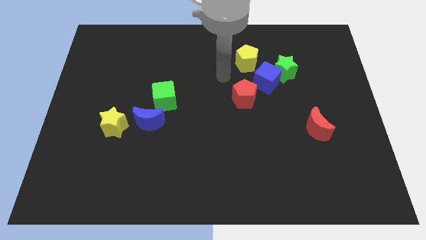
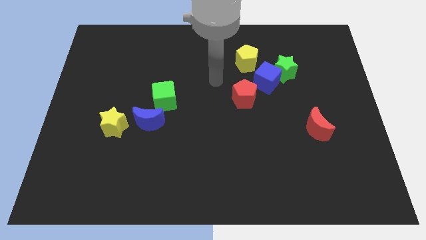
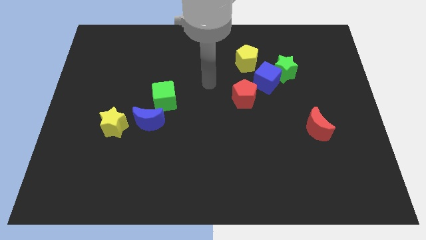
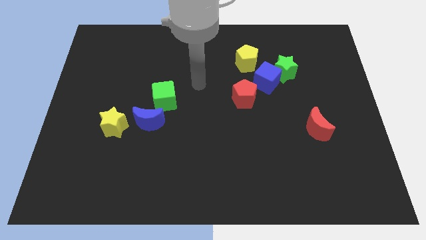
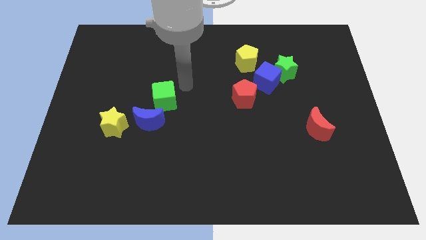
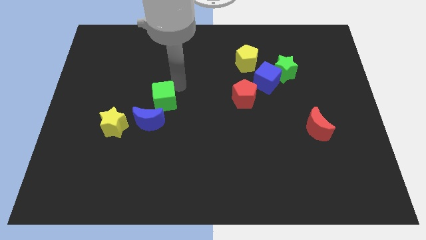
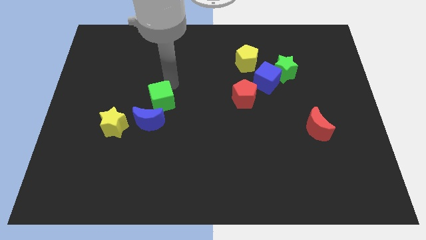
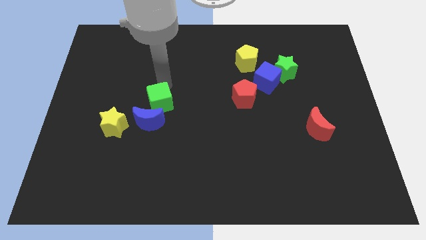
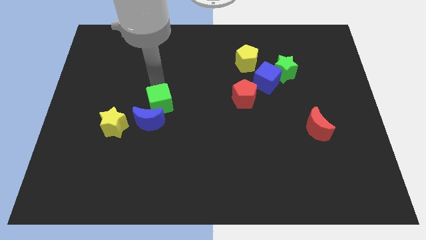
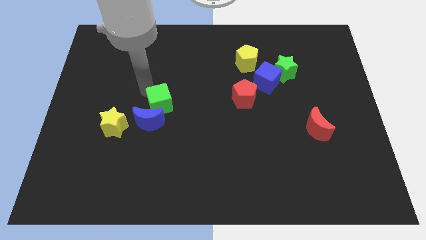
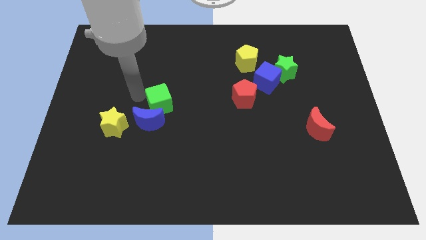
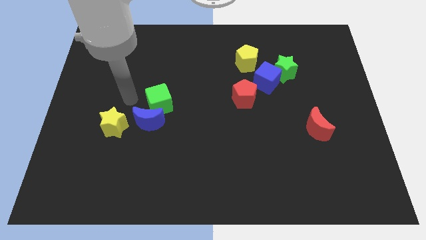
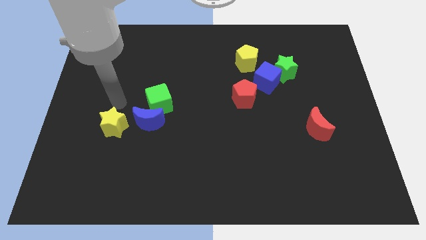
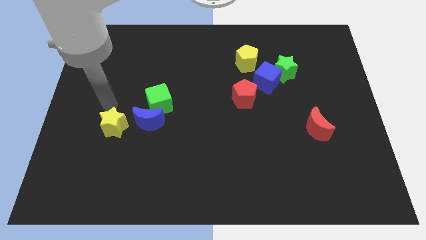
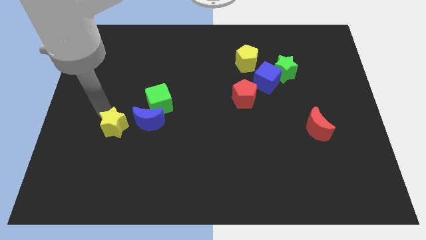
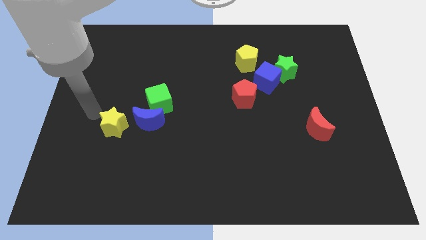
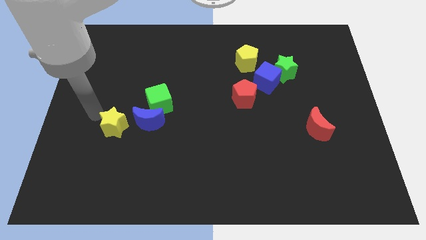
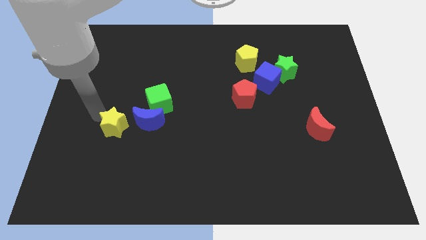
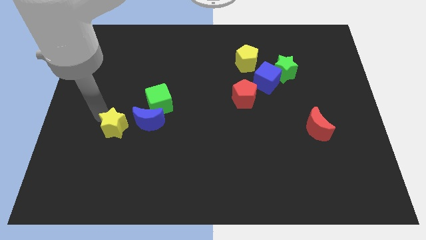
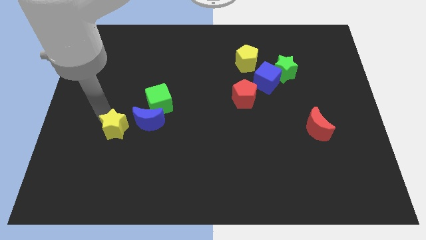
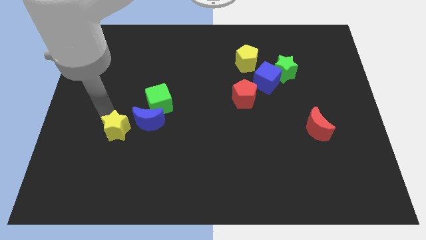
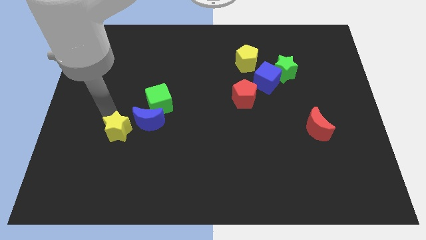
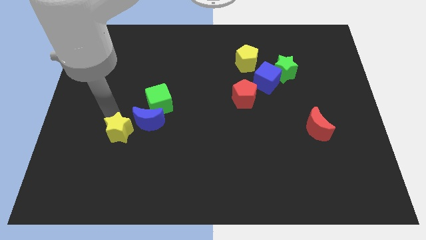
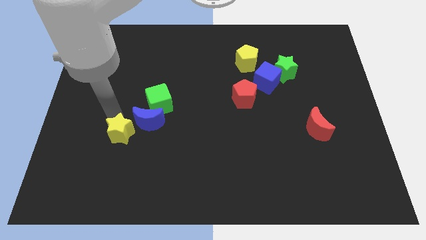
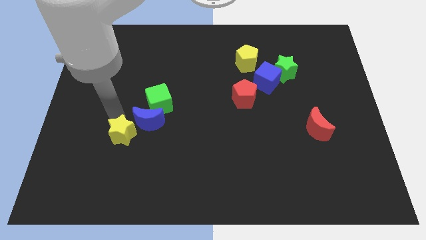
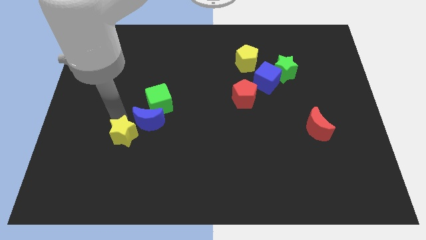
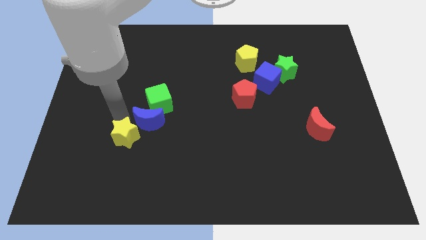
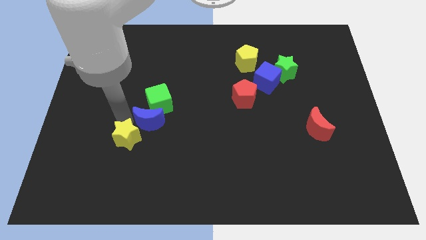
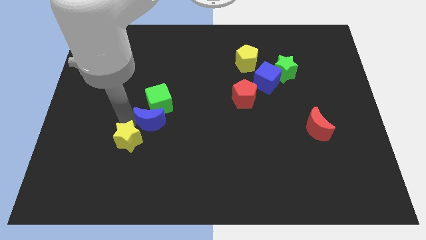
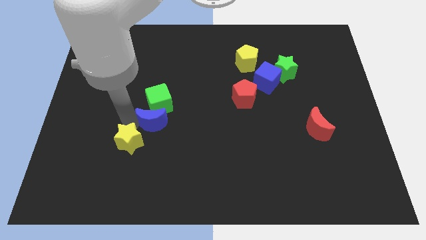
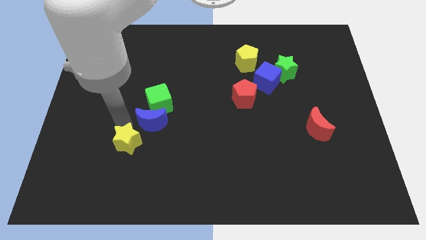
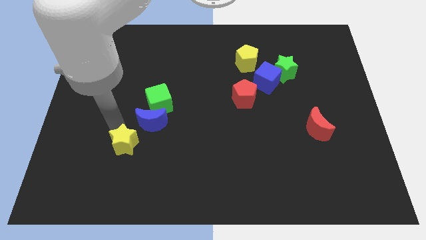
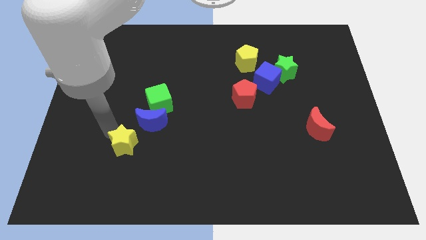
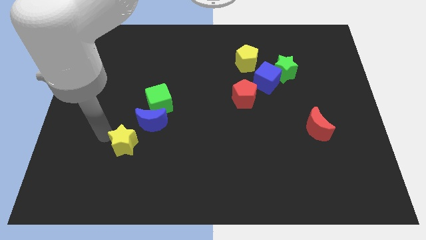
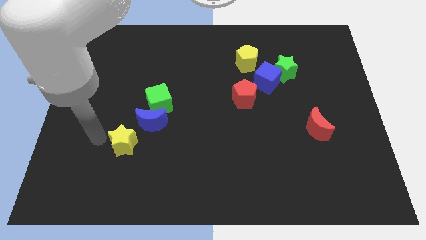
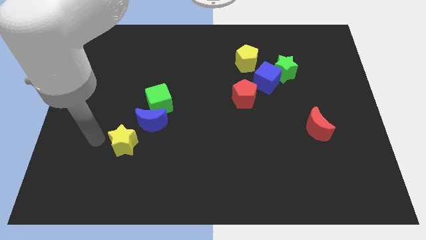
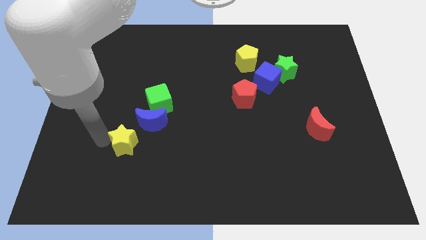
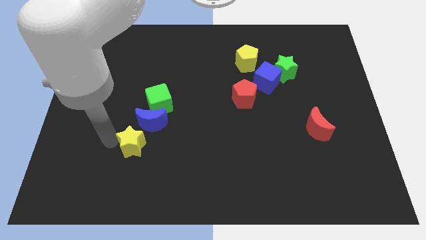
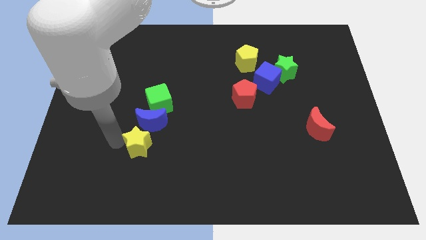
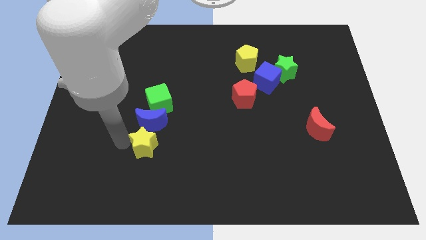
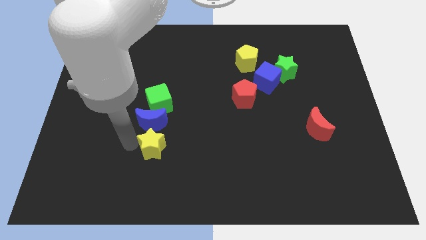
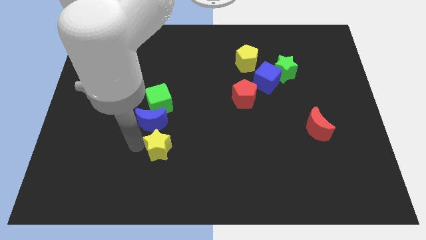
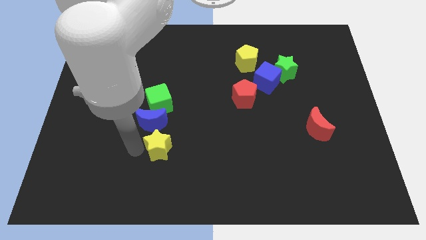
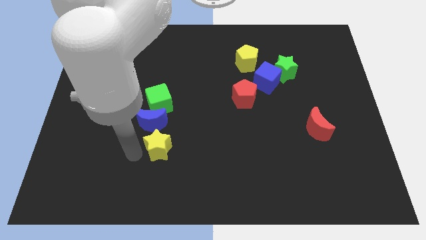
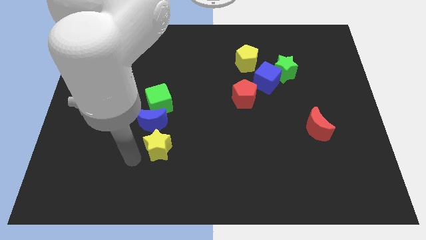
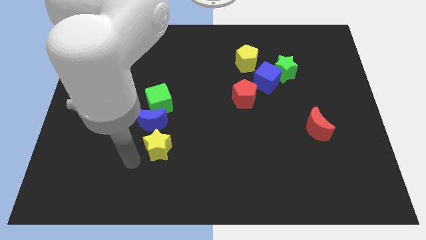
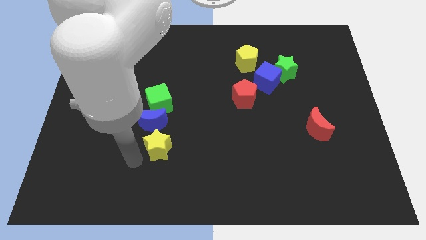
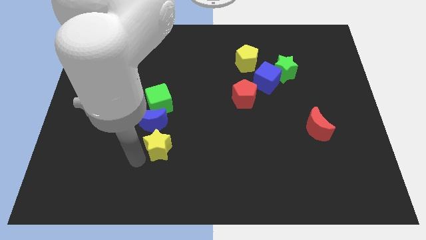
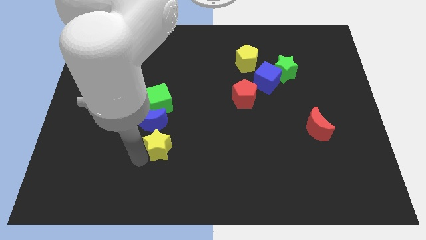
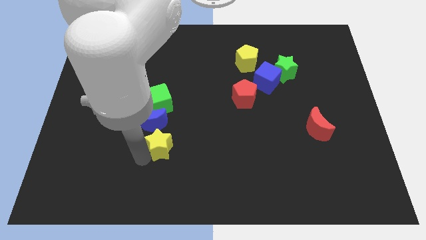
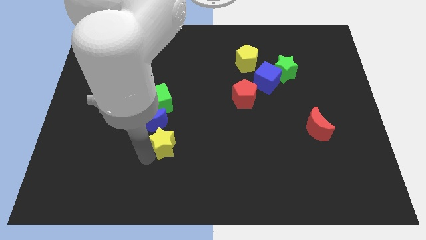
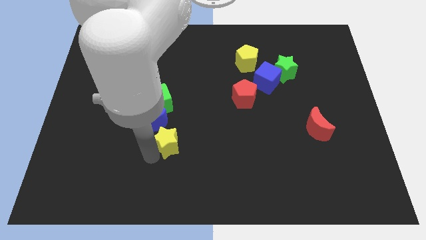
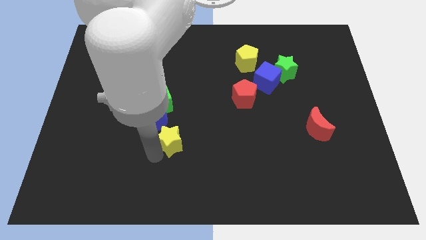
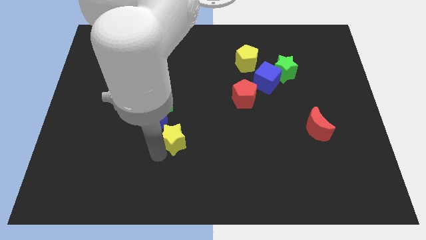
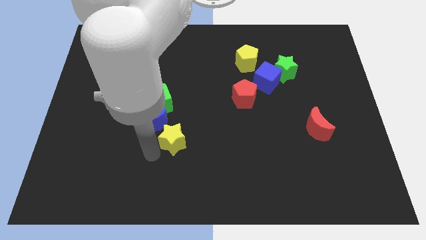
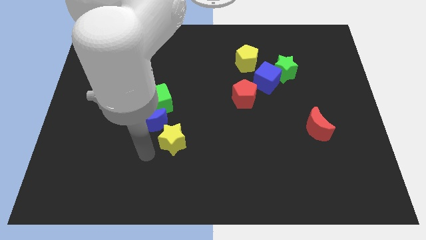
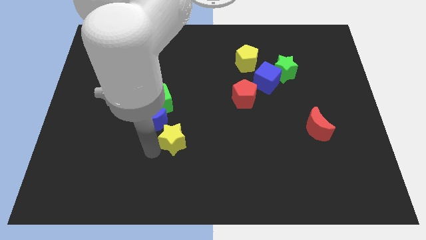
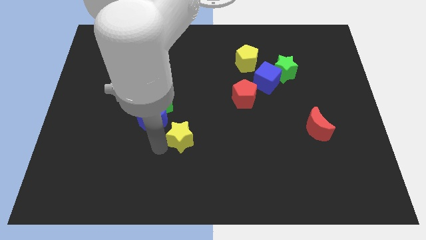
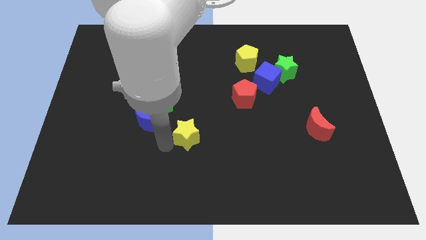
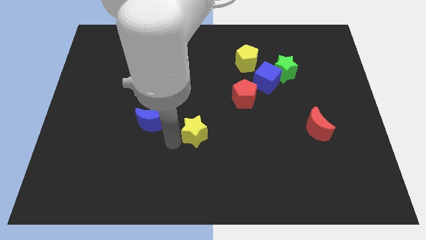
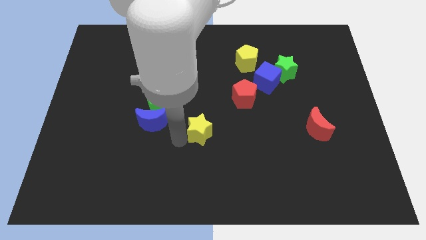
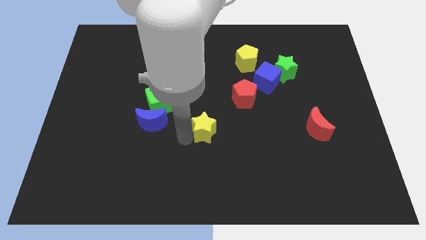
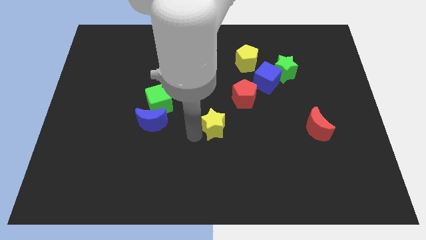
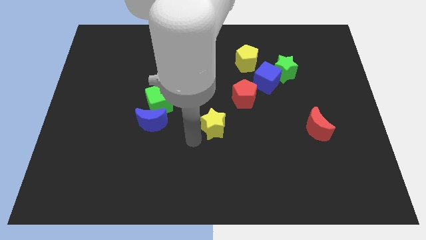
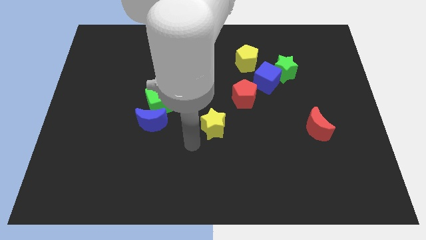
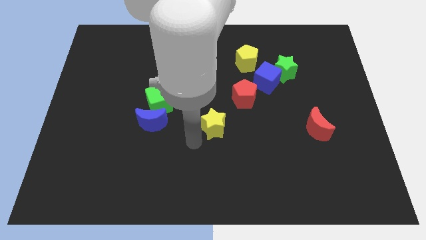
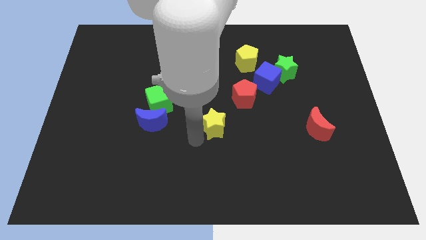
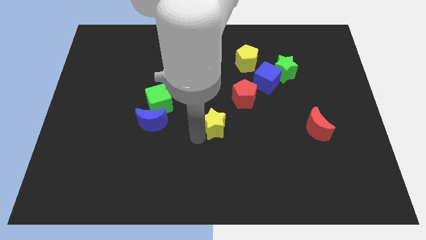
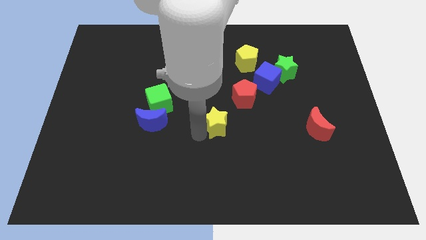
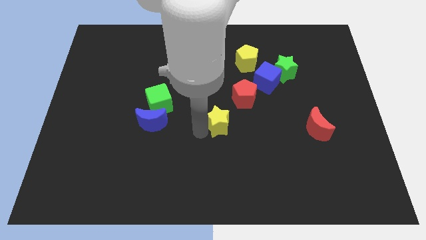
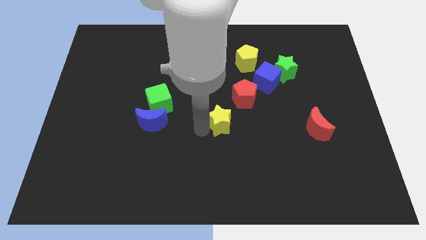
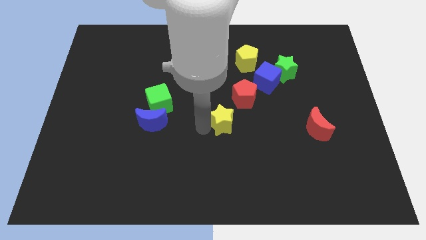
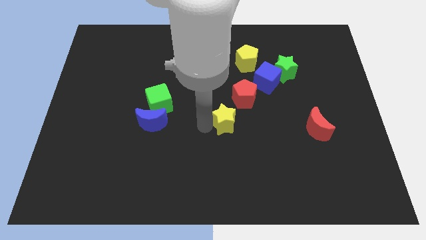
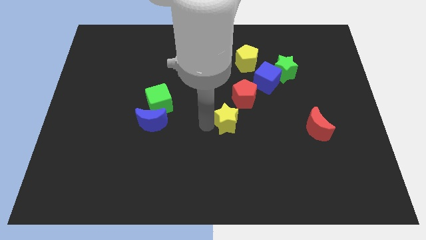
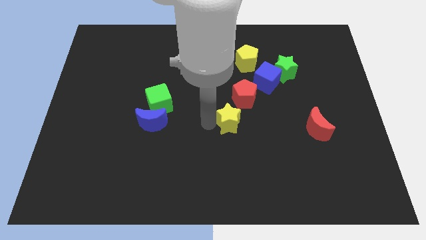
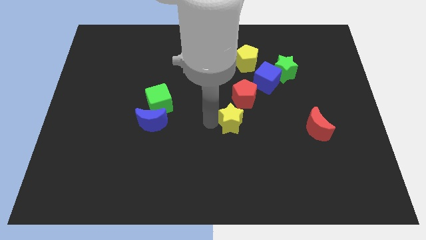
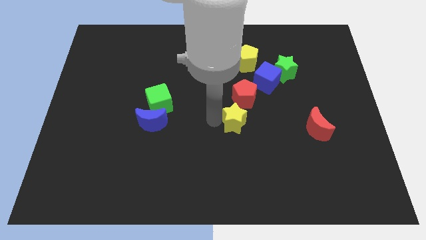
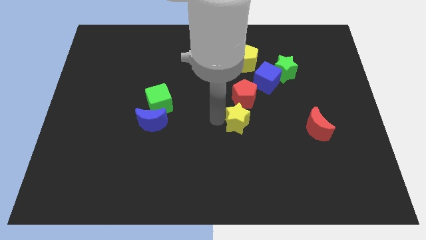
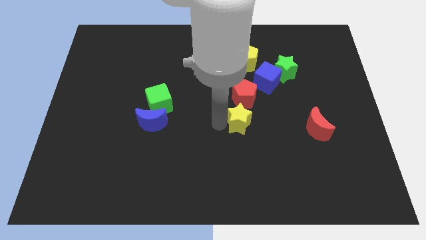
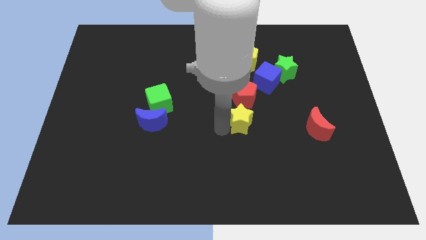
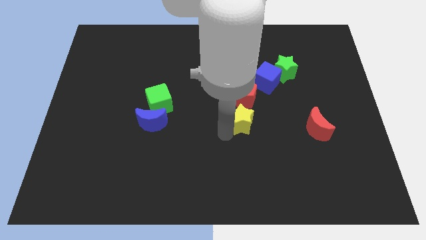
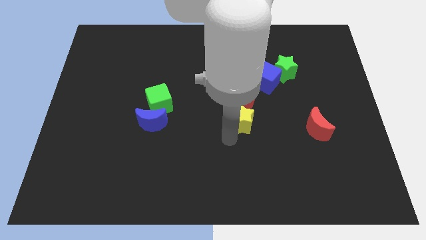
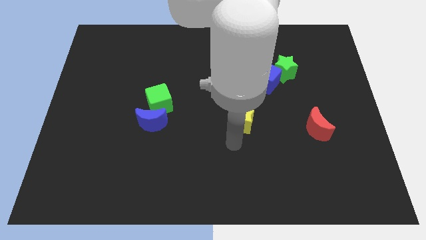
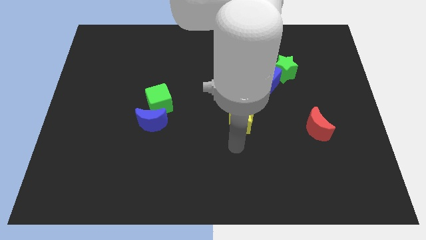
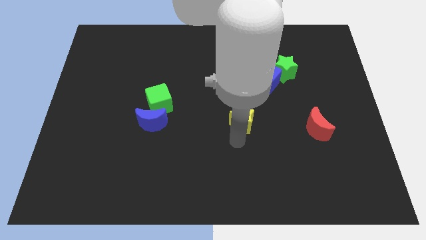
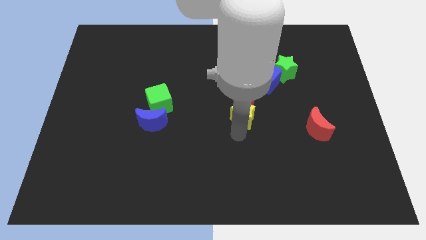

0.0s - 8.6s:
move the yellow star to the red pentagon
